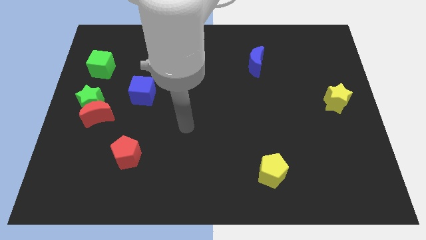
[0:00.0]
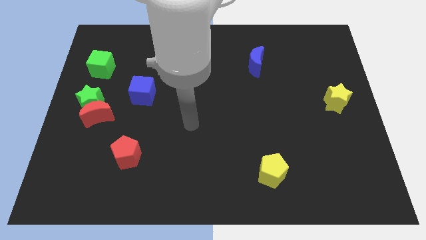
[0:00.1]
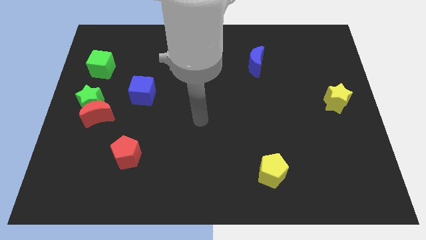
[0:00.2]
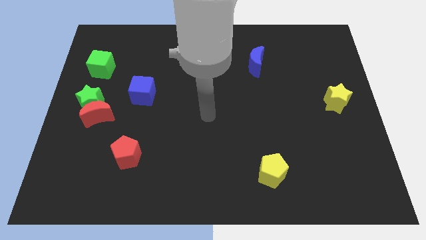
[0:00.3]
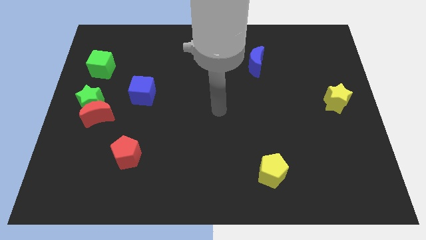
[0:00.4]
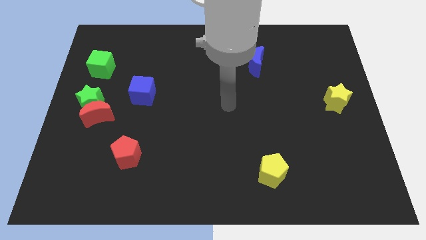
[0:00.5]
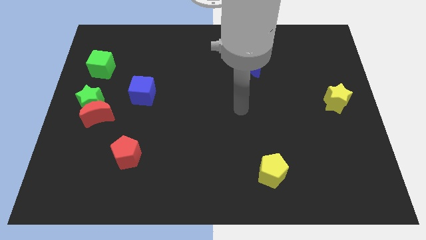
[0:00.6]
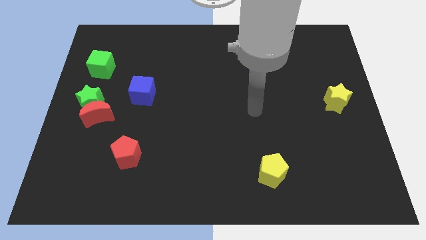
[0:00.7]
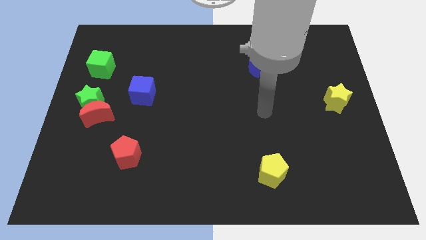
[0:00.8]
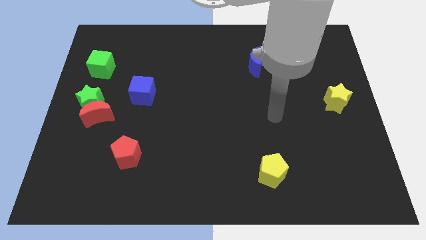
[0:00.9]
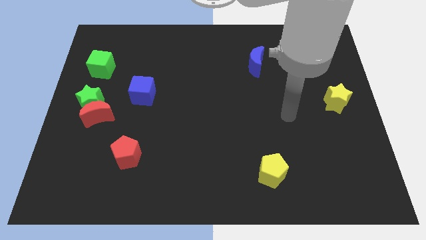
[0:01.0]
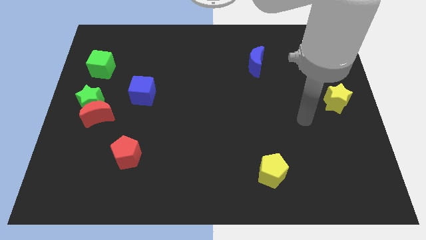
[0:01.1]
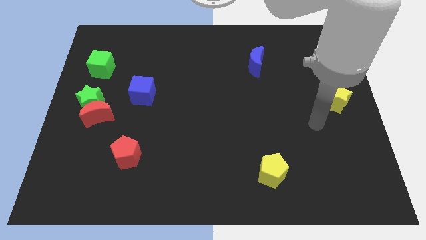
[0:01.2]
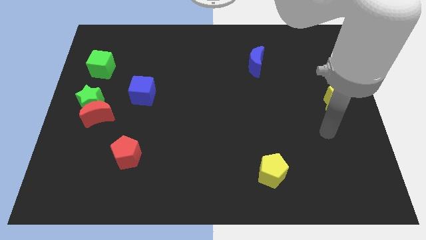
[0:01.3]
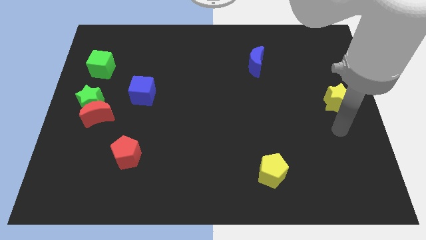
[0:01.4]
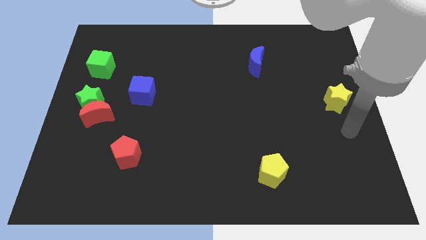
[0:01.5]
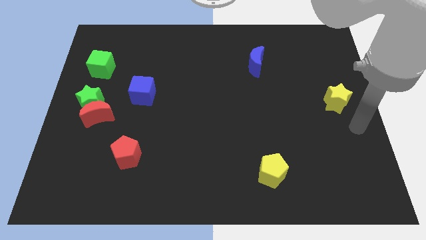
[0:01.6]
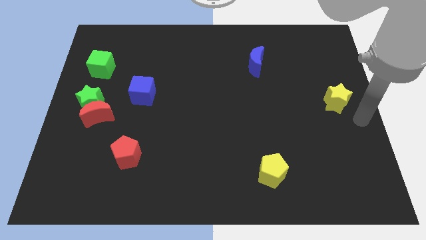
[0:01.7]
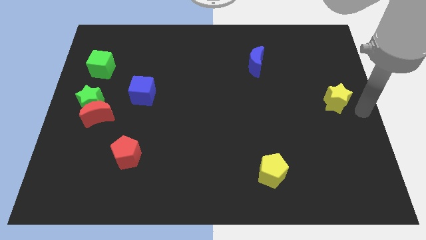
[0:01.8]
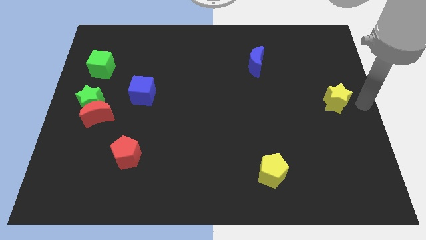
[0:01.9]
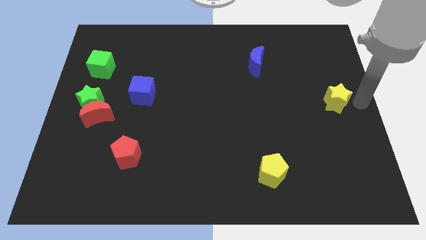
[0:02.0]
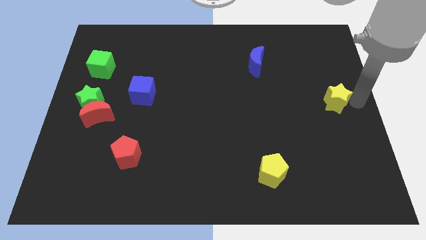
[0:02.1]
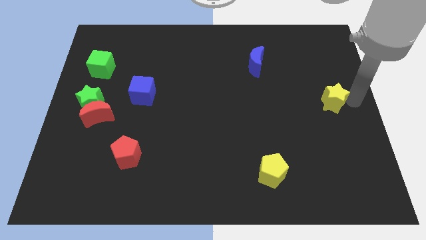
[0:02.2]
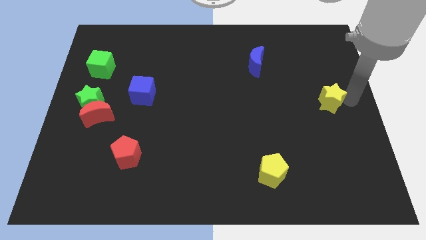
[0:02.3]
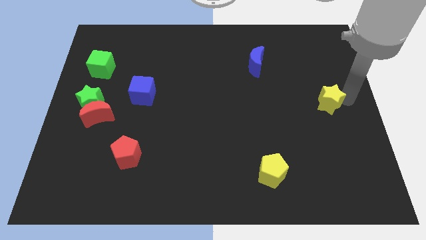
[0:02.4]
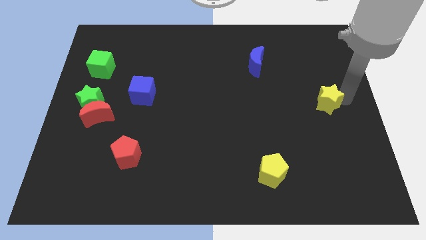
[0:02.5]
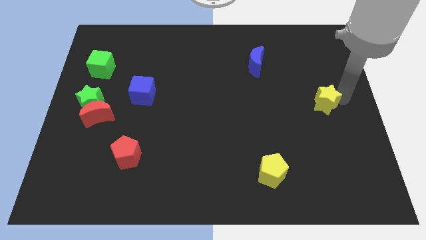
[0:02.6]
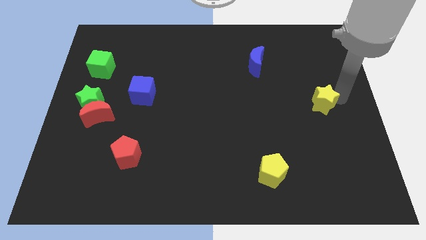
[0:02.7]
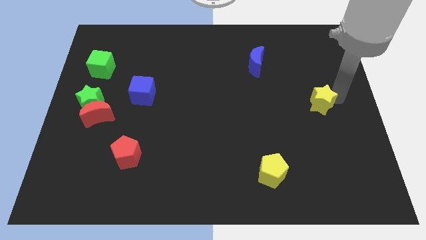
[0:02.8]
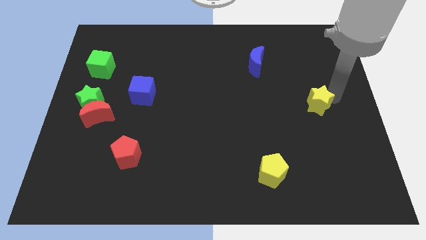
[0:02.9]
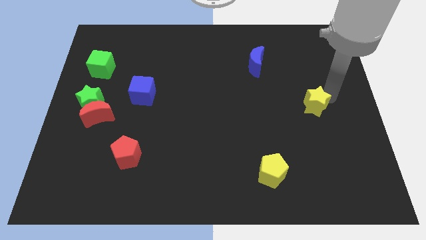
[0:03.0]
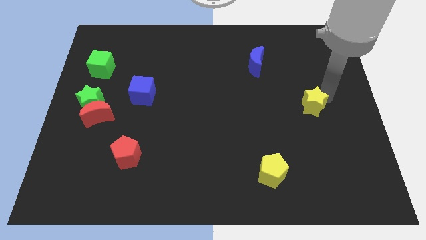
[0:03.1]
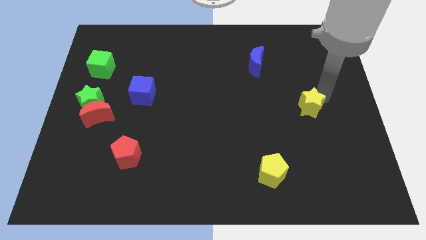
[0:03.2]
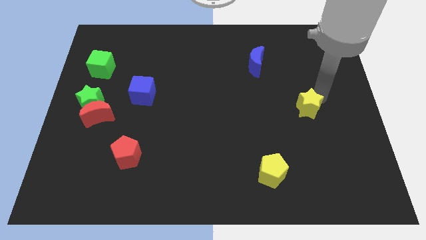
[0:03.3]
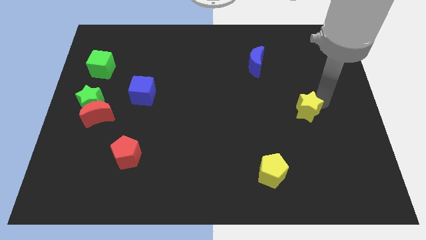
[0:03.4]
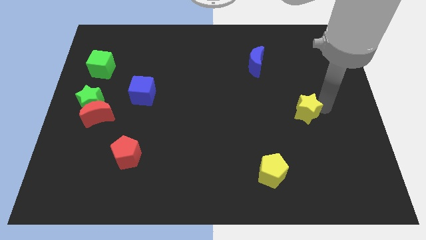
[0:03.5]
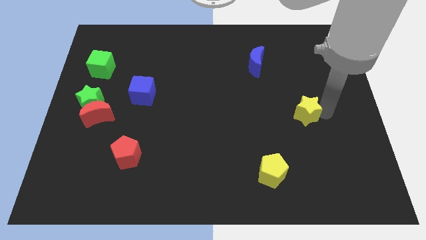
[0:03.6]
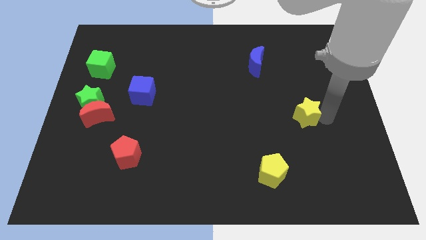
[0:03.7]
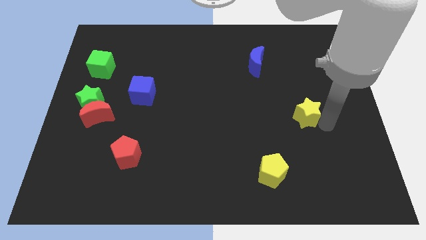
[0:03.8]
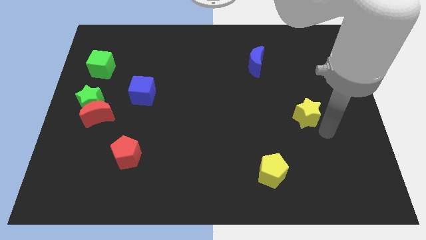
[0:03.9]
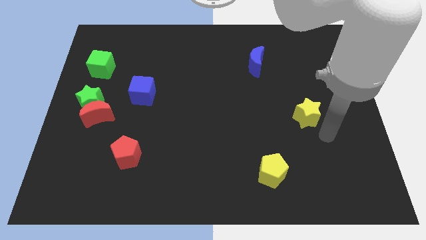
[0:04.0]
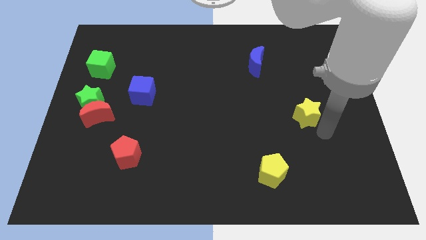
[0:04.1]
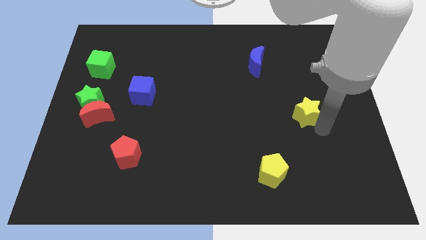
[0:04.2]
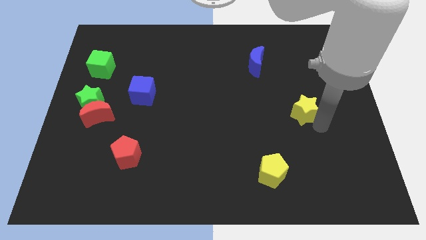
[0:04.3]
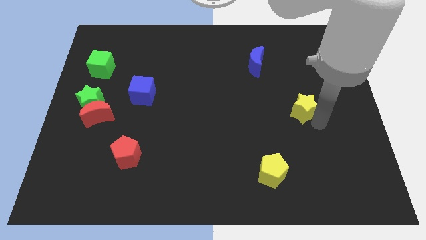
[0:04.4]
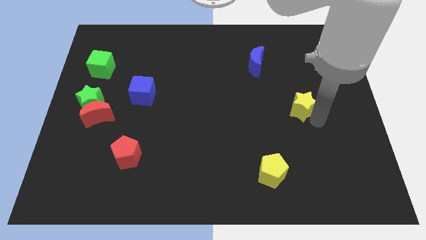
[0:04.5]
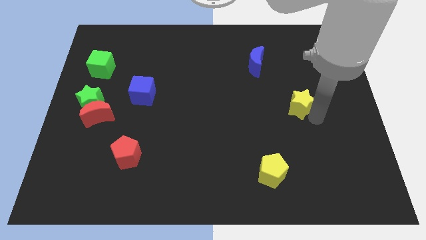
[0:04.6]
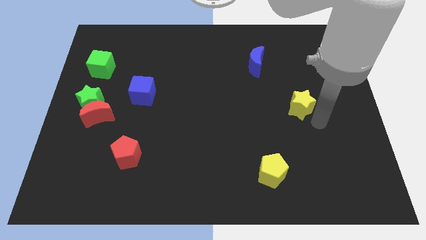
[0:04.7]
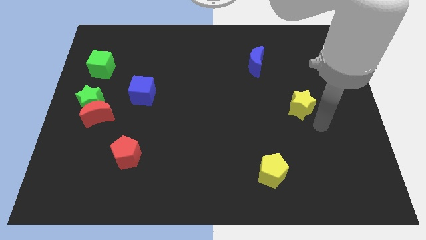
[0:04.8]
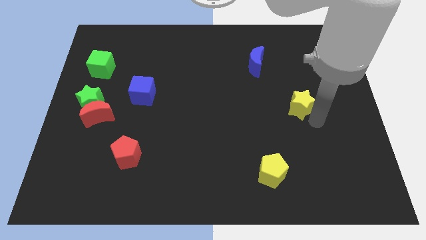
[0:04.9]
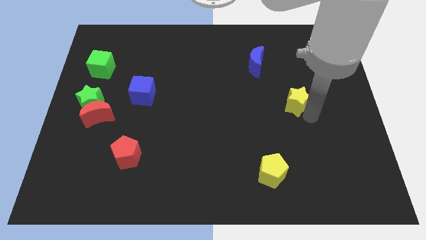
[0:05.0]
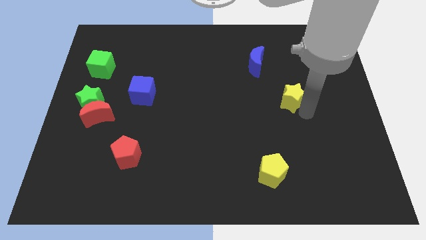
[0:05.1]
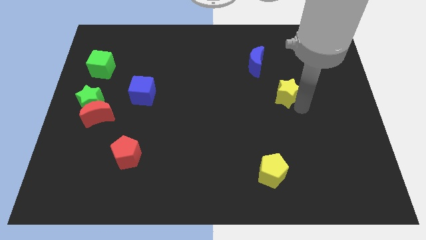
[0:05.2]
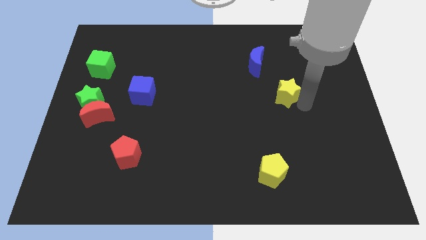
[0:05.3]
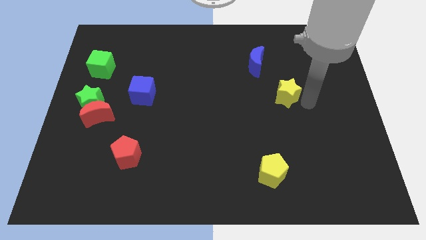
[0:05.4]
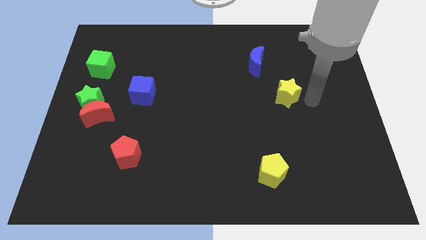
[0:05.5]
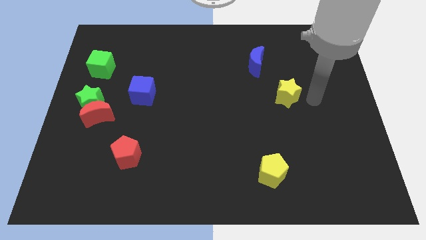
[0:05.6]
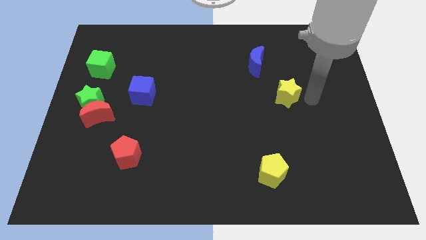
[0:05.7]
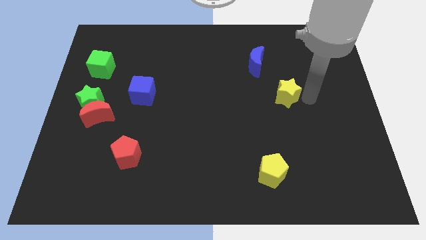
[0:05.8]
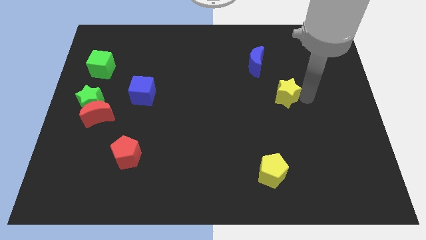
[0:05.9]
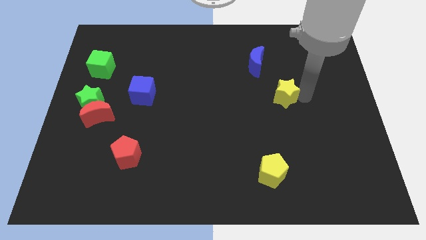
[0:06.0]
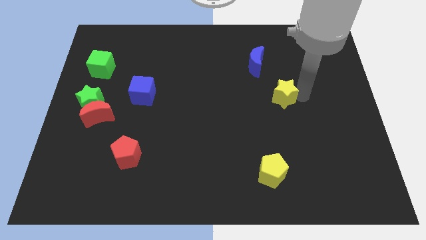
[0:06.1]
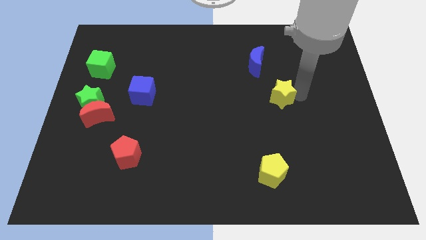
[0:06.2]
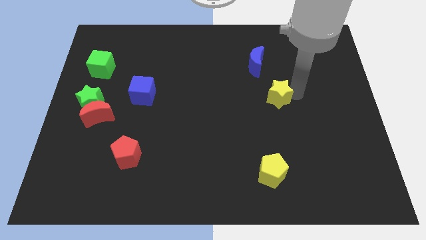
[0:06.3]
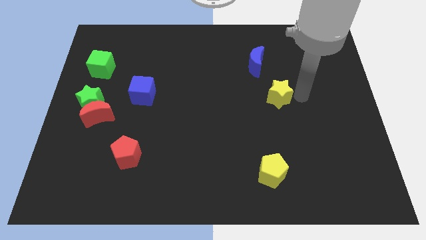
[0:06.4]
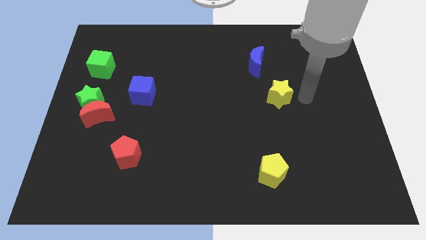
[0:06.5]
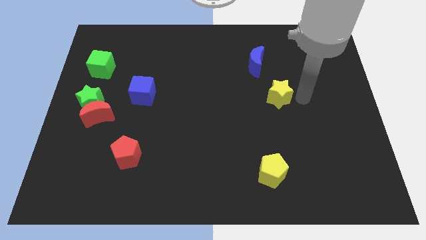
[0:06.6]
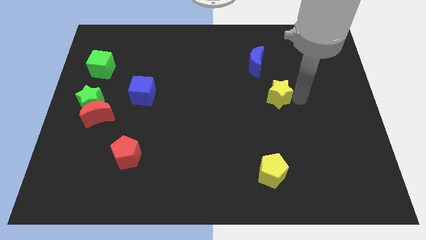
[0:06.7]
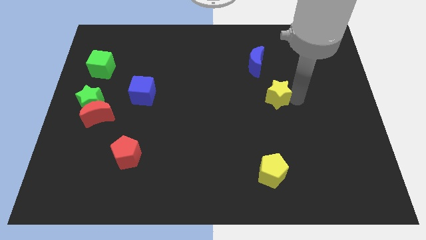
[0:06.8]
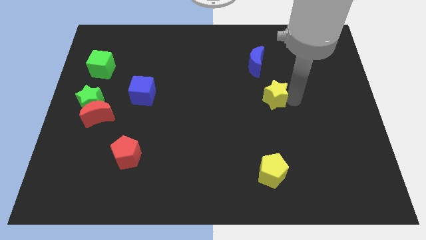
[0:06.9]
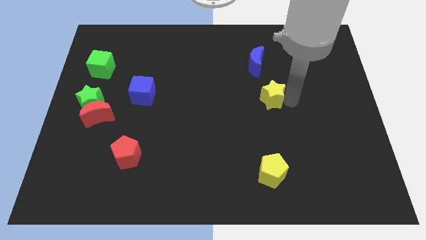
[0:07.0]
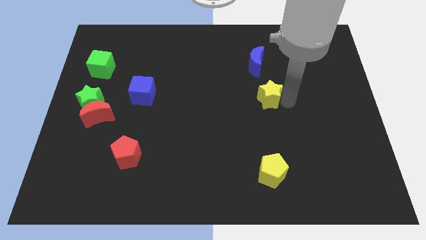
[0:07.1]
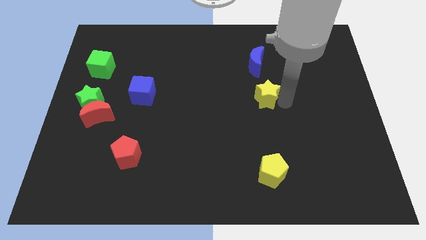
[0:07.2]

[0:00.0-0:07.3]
move the yellow star to the center of the board
